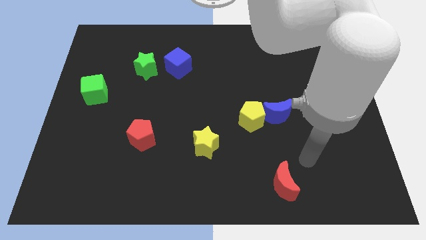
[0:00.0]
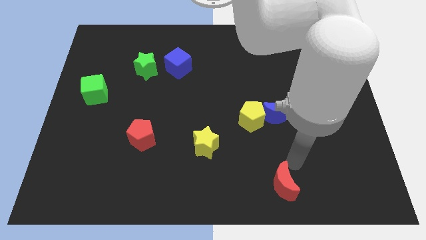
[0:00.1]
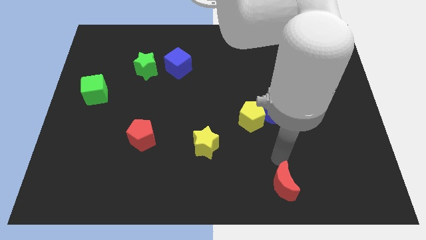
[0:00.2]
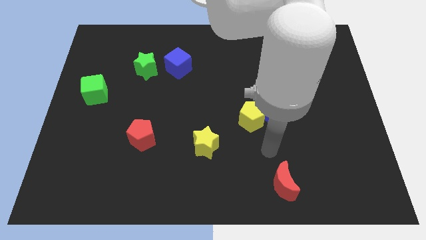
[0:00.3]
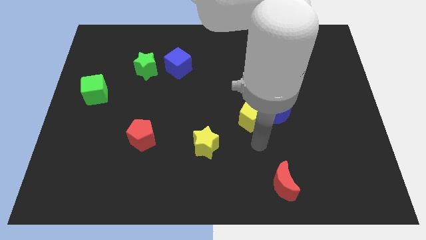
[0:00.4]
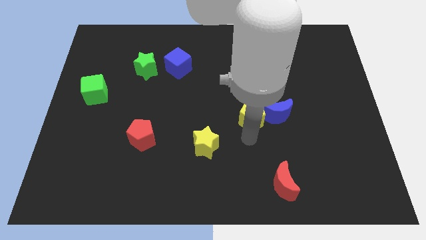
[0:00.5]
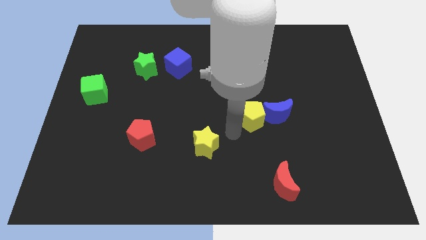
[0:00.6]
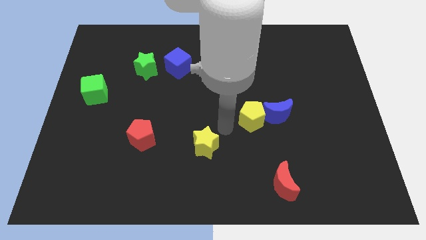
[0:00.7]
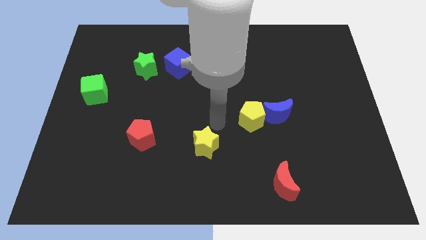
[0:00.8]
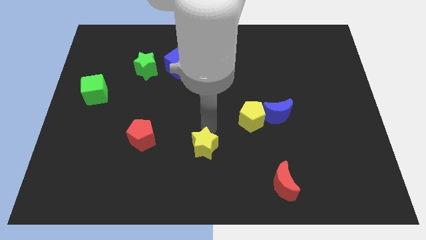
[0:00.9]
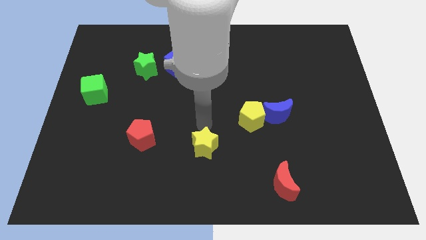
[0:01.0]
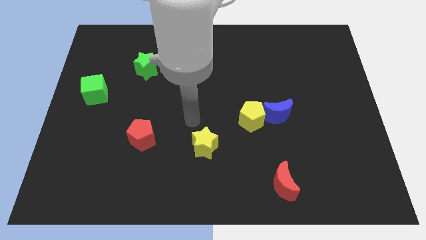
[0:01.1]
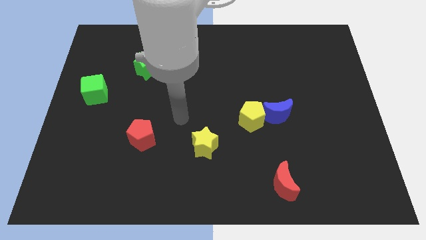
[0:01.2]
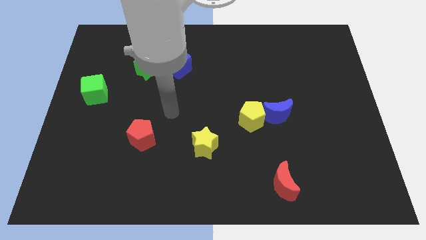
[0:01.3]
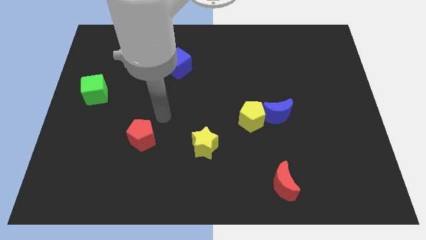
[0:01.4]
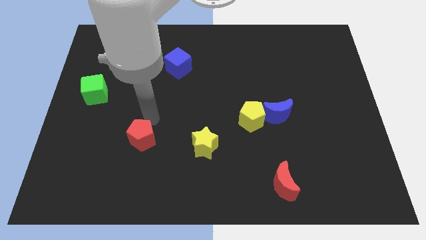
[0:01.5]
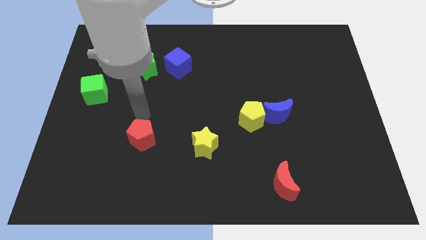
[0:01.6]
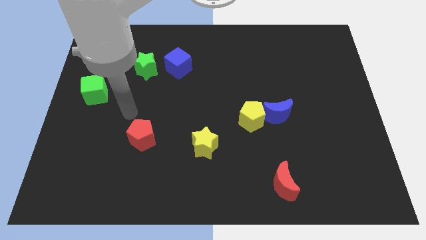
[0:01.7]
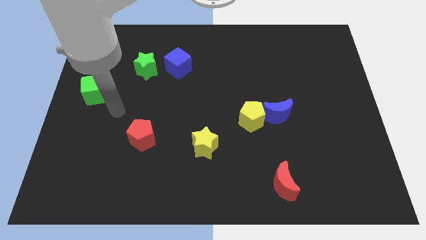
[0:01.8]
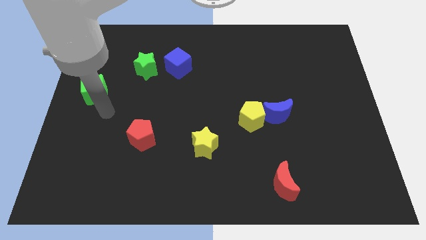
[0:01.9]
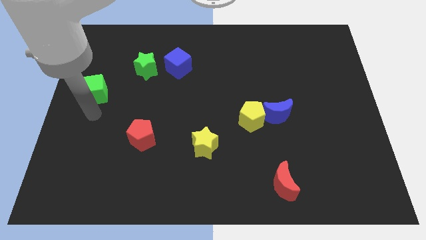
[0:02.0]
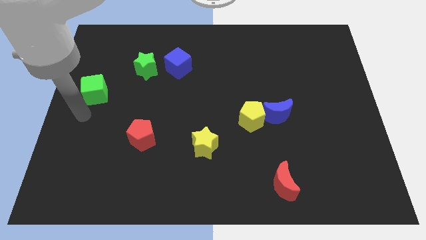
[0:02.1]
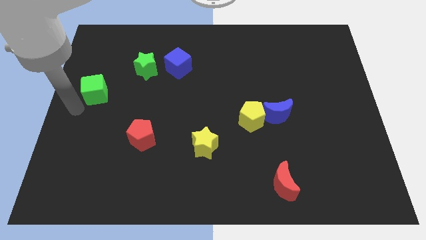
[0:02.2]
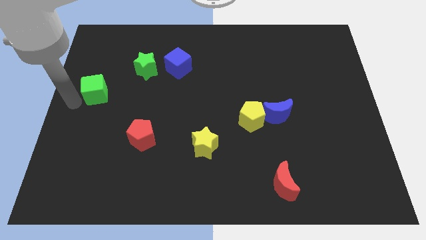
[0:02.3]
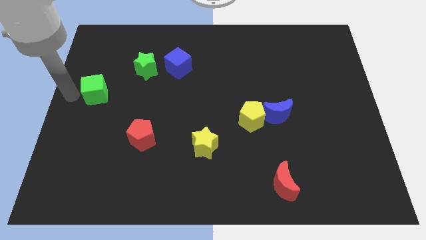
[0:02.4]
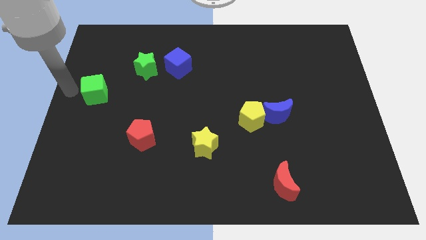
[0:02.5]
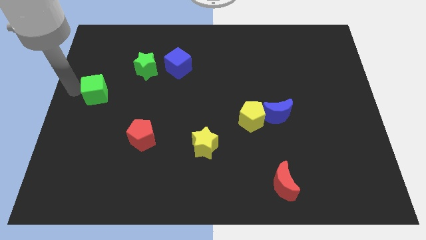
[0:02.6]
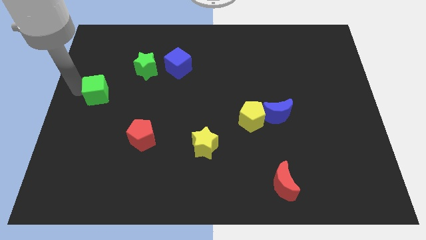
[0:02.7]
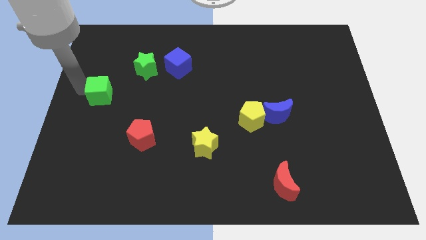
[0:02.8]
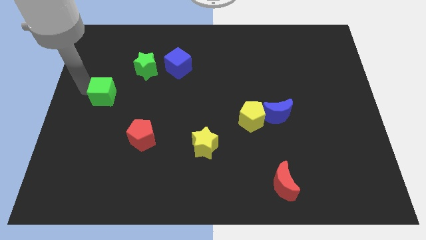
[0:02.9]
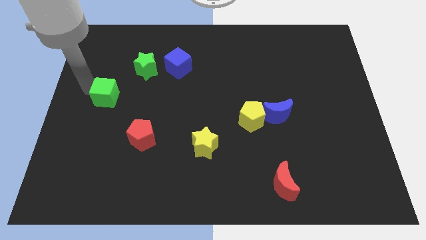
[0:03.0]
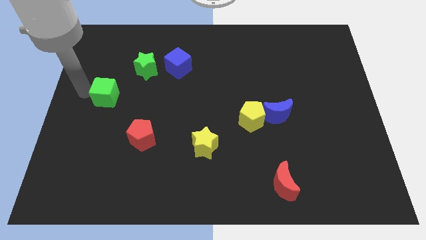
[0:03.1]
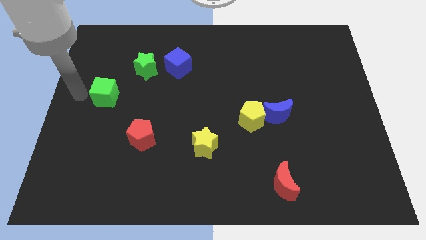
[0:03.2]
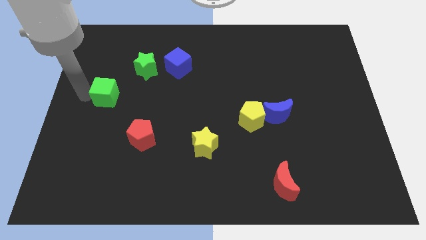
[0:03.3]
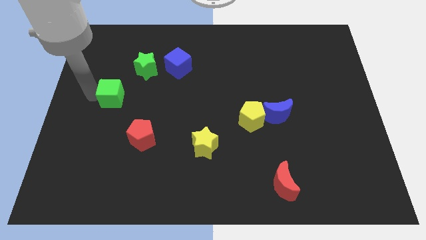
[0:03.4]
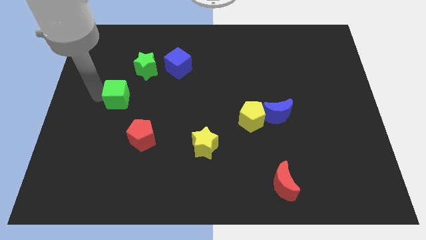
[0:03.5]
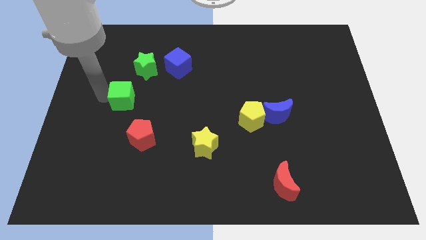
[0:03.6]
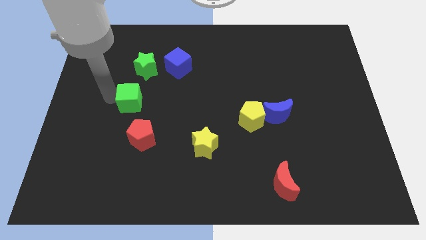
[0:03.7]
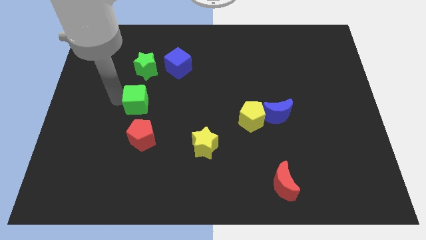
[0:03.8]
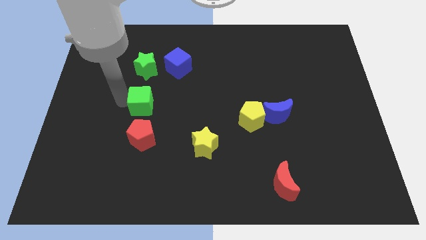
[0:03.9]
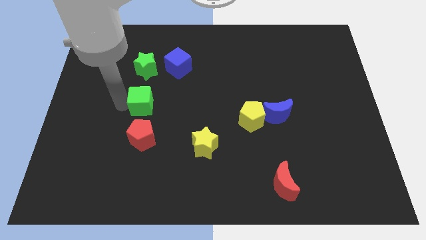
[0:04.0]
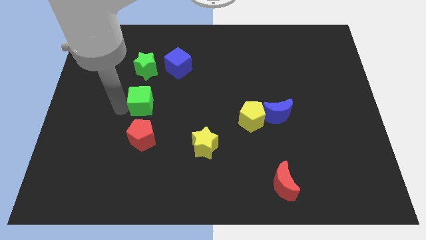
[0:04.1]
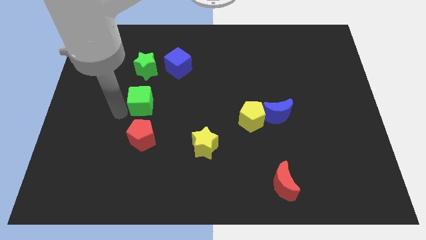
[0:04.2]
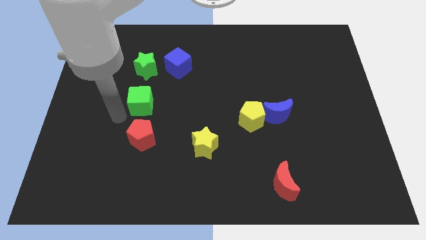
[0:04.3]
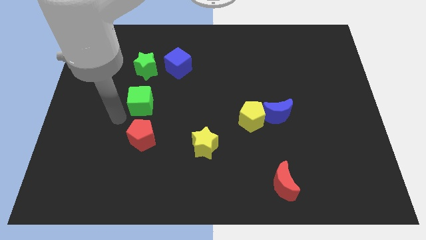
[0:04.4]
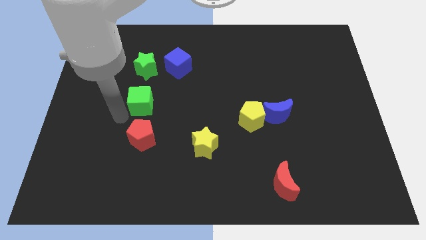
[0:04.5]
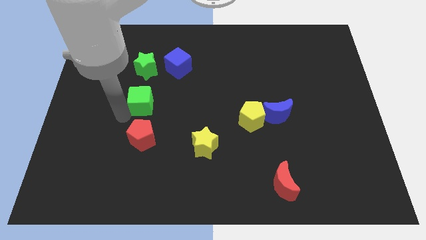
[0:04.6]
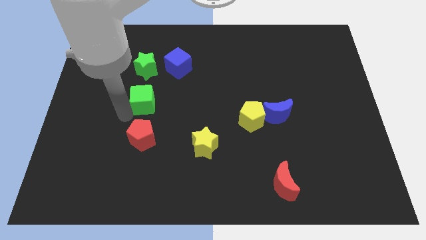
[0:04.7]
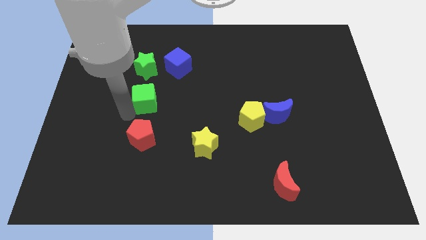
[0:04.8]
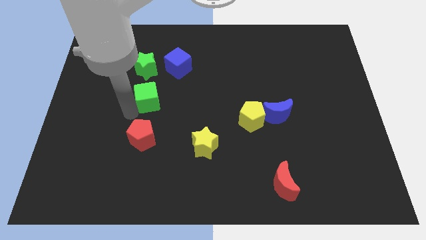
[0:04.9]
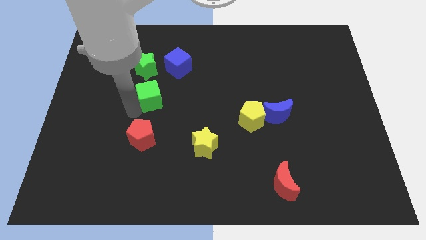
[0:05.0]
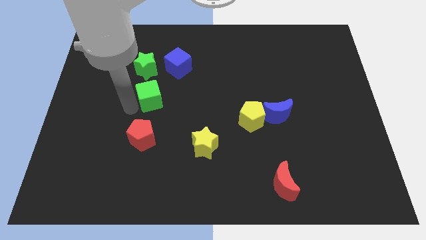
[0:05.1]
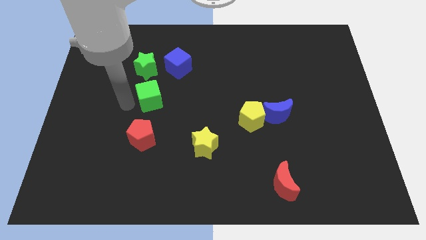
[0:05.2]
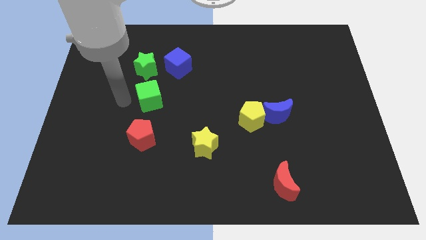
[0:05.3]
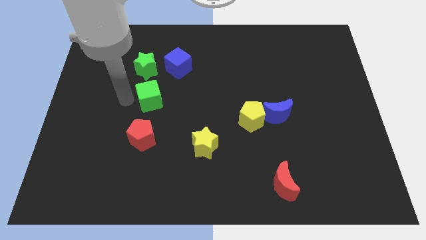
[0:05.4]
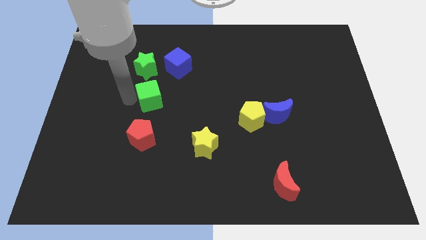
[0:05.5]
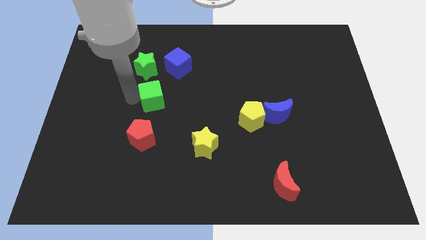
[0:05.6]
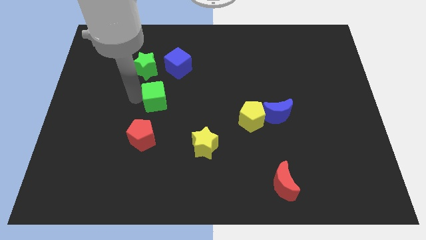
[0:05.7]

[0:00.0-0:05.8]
push the green cube below the blue cube

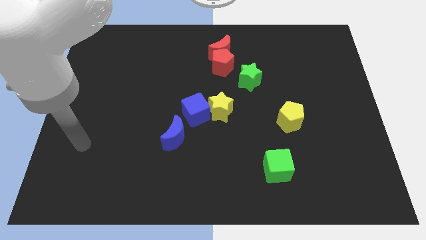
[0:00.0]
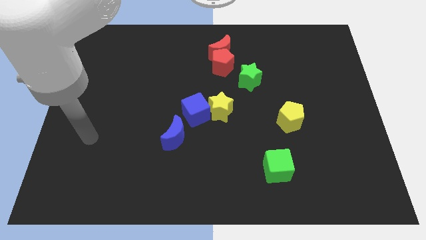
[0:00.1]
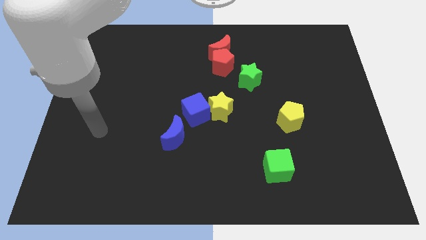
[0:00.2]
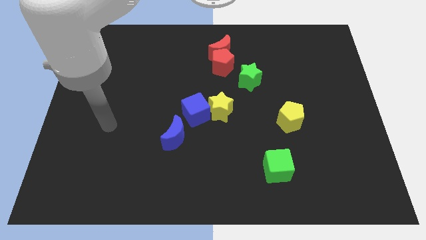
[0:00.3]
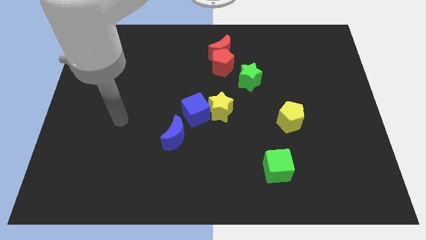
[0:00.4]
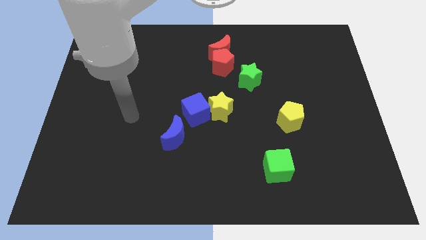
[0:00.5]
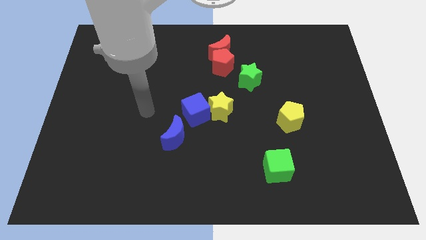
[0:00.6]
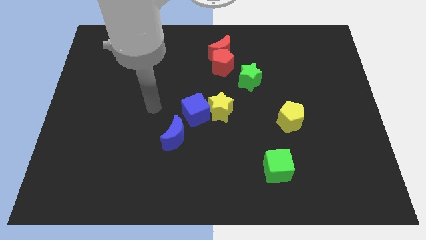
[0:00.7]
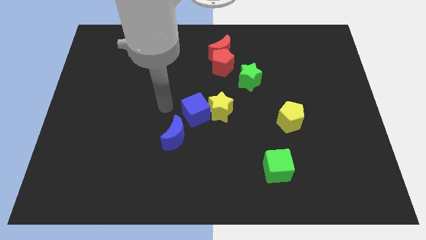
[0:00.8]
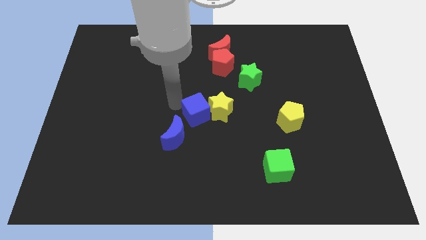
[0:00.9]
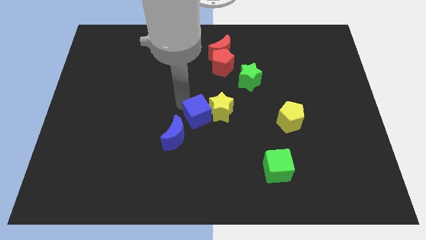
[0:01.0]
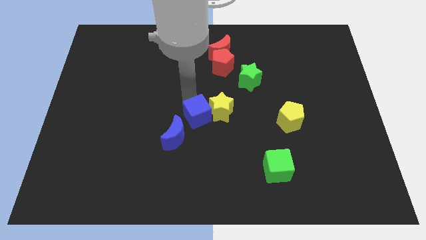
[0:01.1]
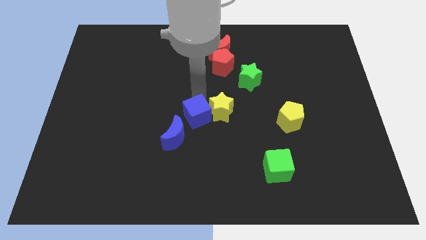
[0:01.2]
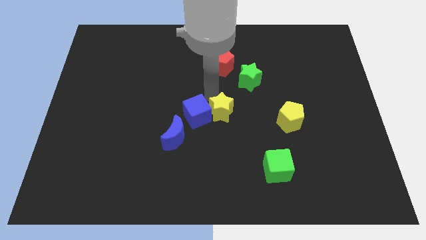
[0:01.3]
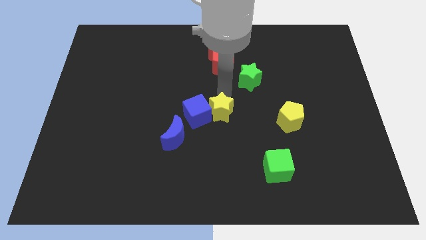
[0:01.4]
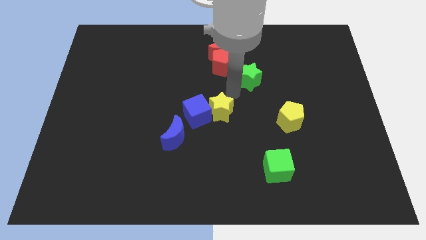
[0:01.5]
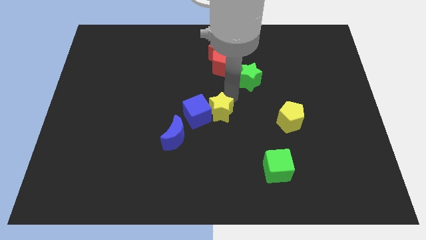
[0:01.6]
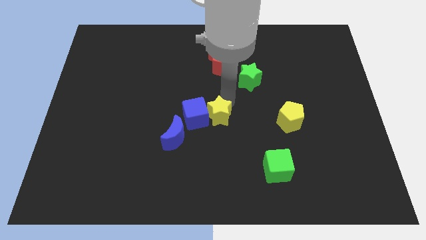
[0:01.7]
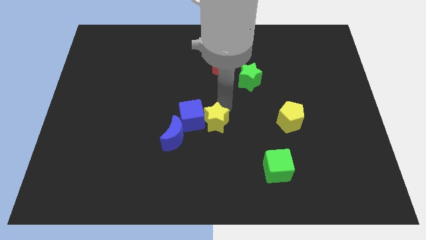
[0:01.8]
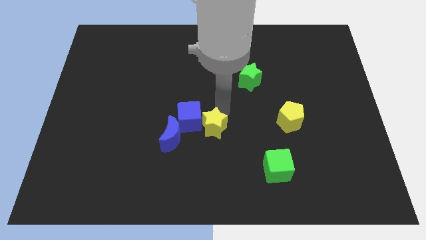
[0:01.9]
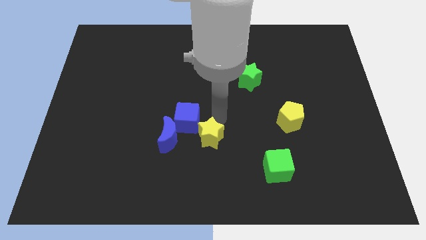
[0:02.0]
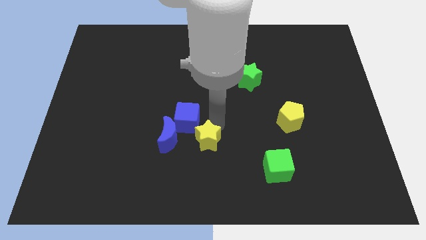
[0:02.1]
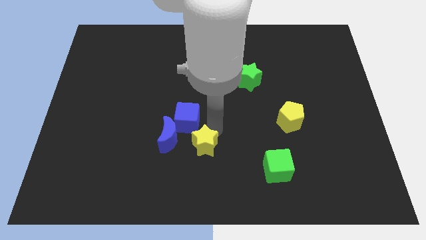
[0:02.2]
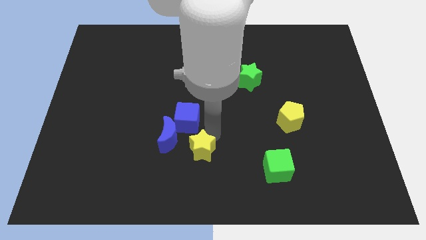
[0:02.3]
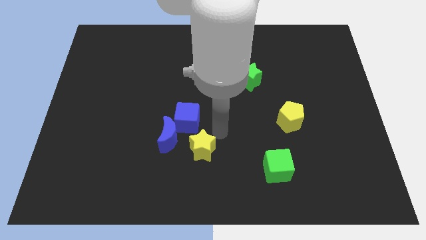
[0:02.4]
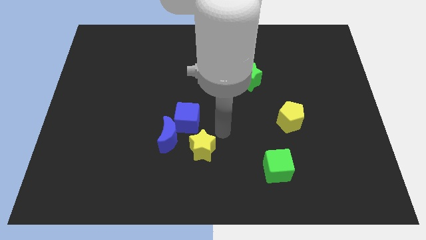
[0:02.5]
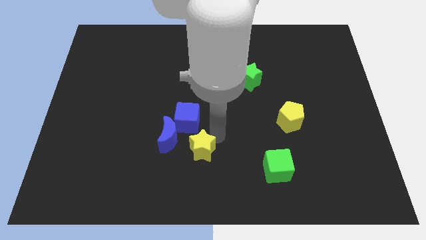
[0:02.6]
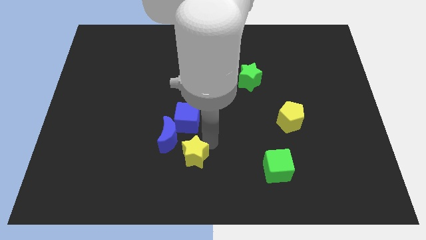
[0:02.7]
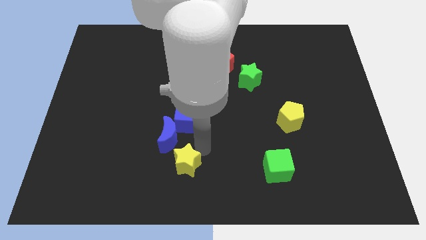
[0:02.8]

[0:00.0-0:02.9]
push the yellow star below the blue moon
